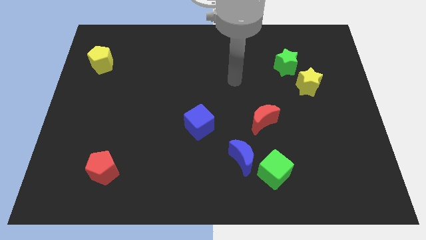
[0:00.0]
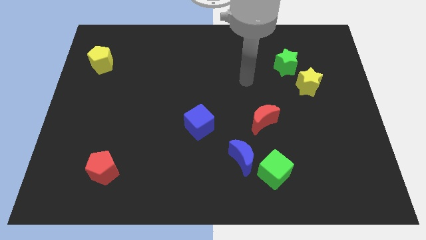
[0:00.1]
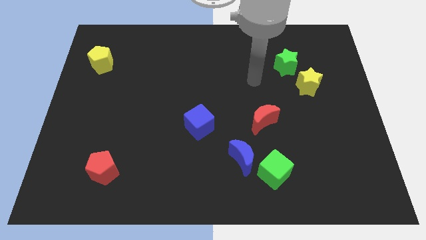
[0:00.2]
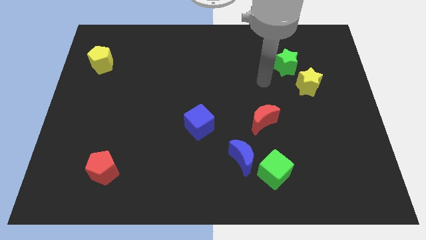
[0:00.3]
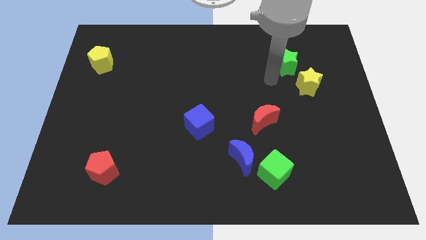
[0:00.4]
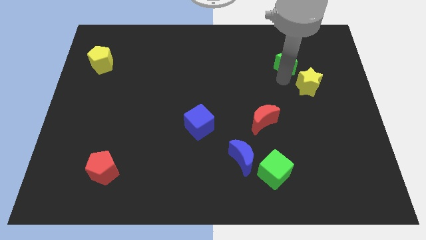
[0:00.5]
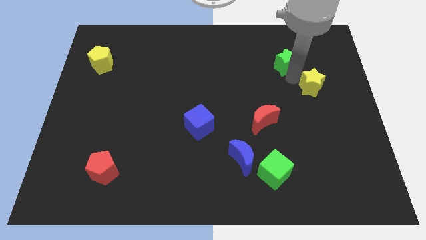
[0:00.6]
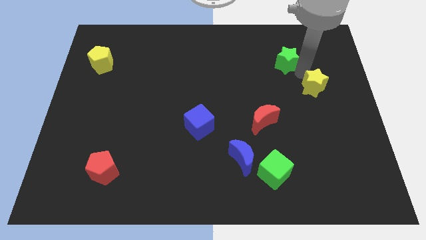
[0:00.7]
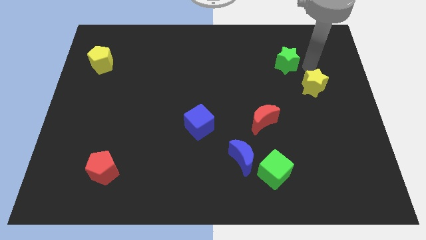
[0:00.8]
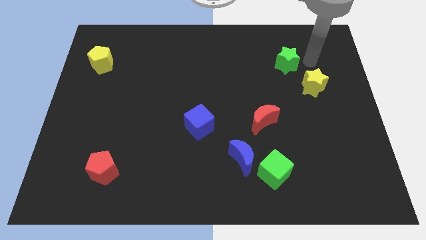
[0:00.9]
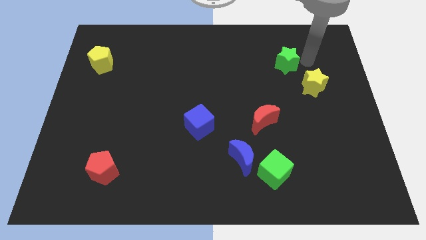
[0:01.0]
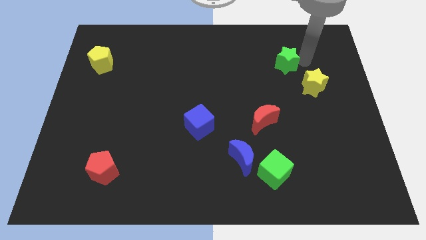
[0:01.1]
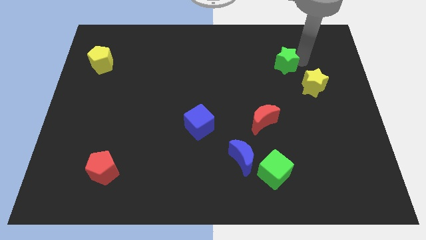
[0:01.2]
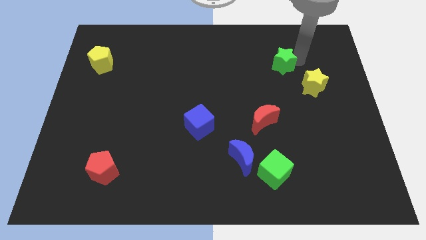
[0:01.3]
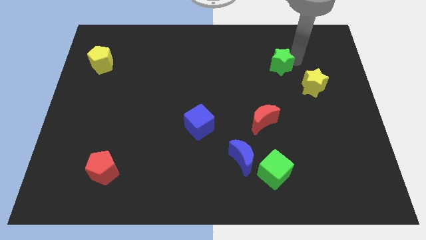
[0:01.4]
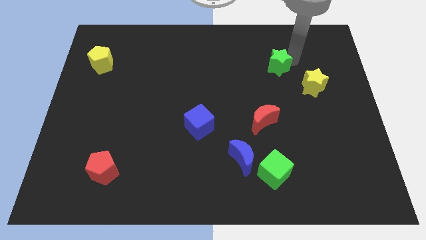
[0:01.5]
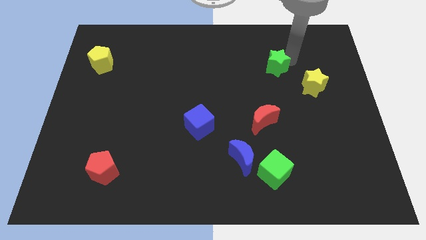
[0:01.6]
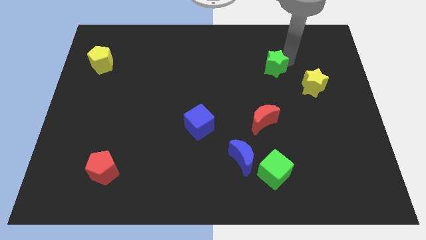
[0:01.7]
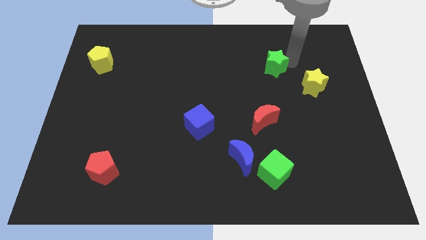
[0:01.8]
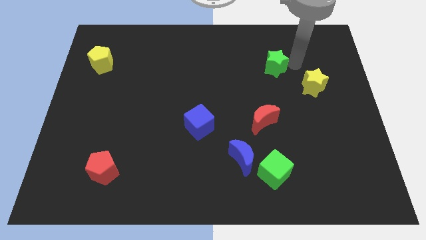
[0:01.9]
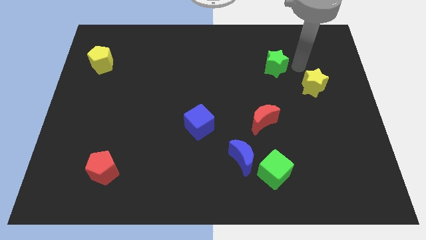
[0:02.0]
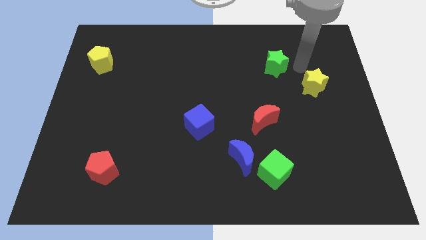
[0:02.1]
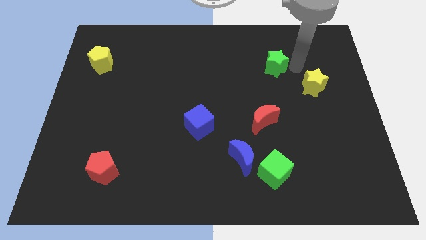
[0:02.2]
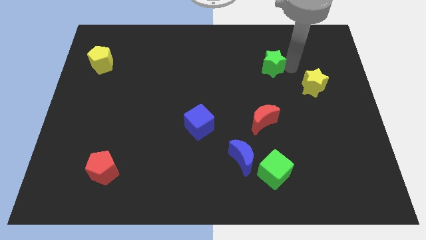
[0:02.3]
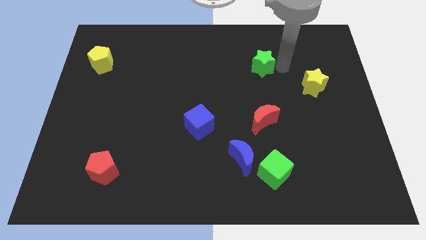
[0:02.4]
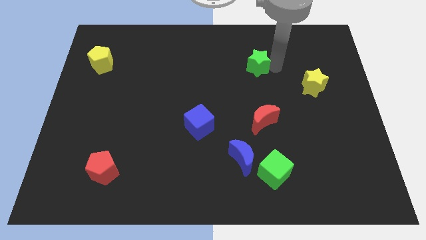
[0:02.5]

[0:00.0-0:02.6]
slide the green star to the left slightly

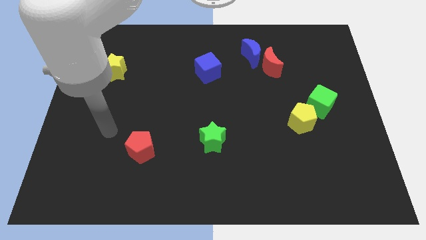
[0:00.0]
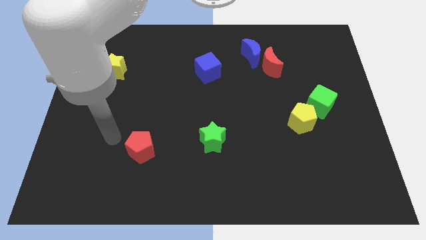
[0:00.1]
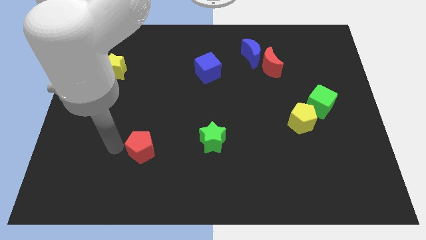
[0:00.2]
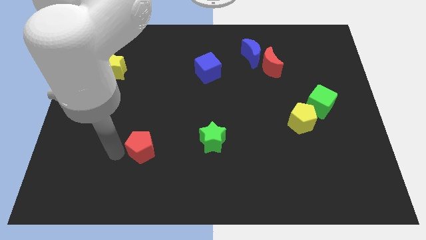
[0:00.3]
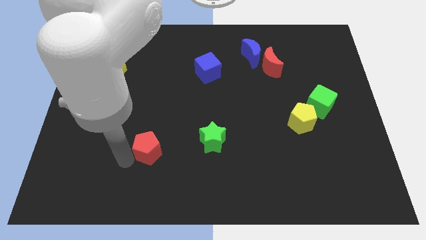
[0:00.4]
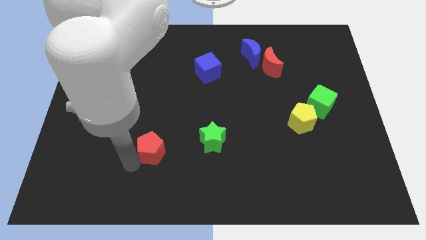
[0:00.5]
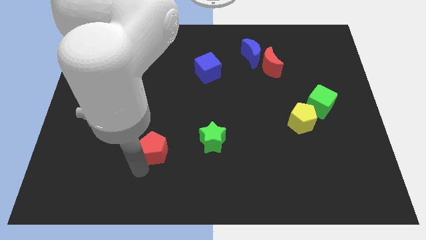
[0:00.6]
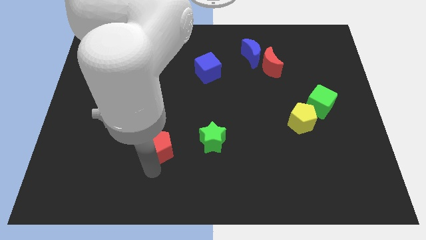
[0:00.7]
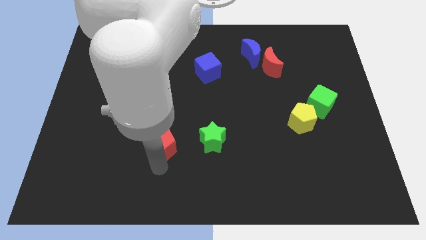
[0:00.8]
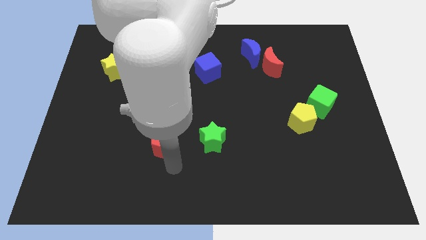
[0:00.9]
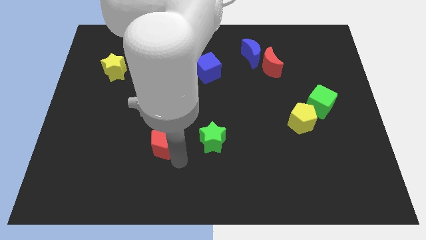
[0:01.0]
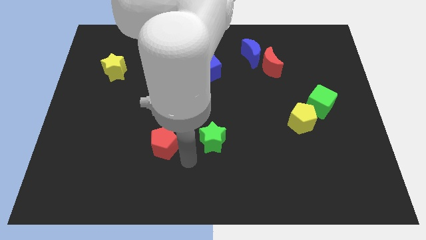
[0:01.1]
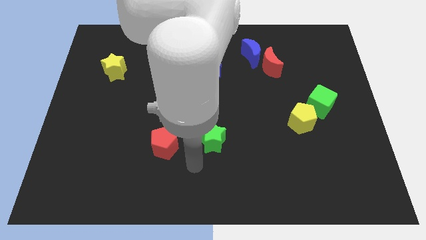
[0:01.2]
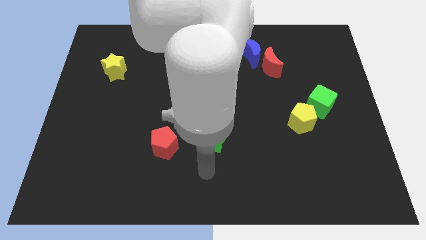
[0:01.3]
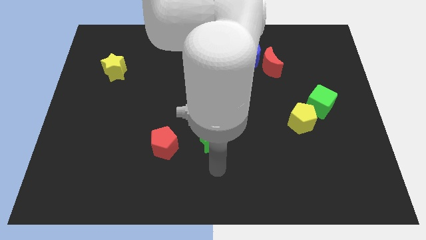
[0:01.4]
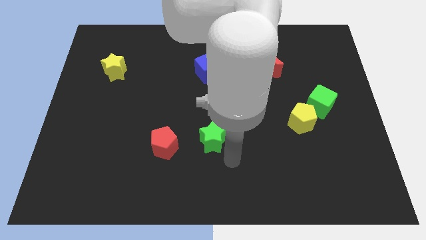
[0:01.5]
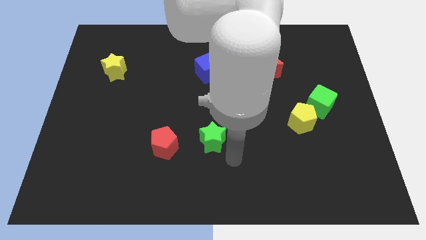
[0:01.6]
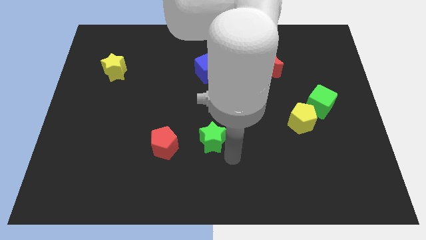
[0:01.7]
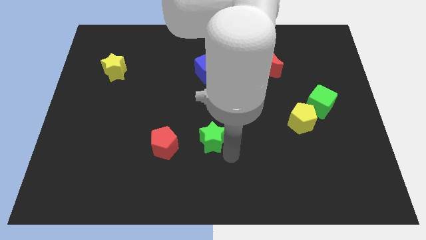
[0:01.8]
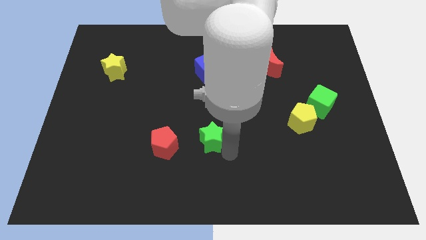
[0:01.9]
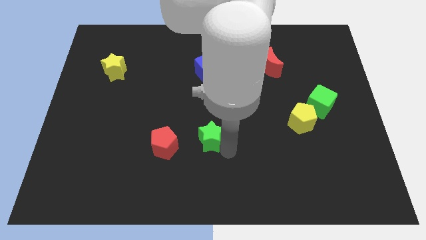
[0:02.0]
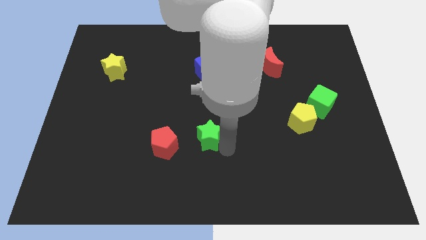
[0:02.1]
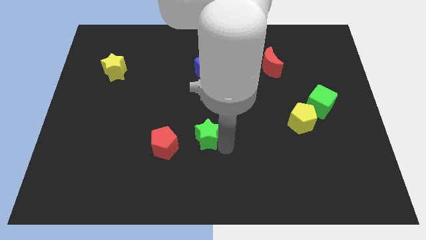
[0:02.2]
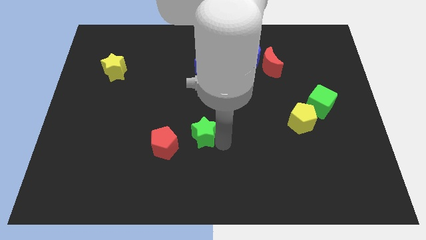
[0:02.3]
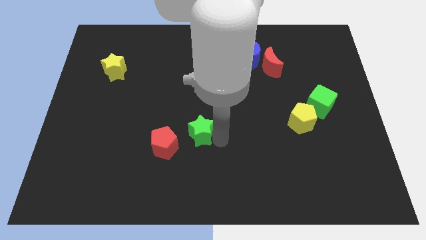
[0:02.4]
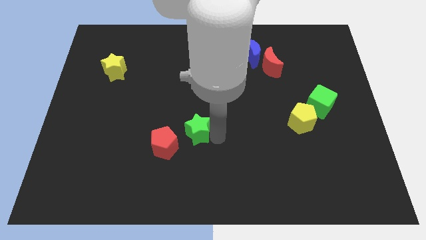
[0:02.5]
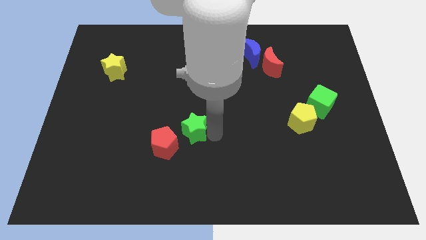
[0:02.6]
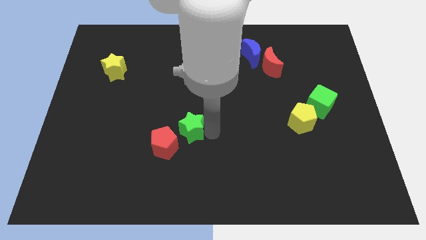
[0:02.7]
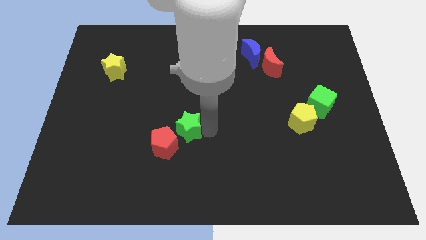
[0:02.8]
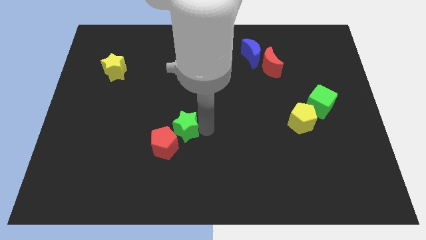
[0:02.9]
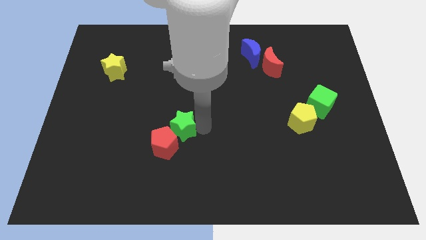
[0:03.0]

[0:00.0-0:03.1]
push the green star a little up and then left

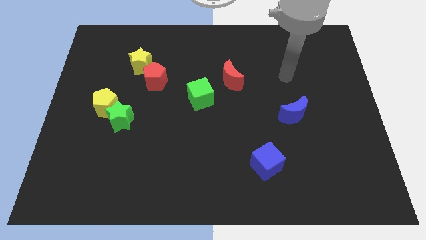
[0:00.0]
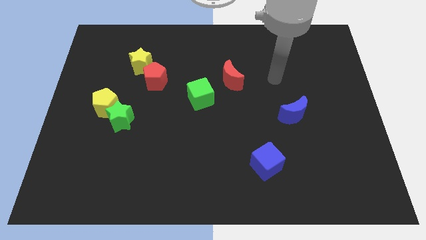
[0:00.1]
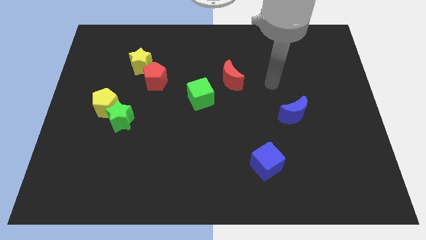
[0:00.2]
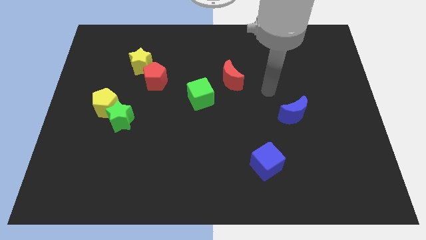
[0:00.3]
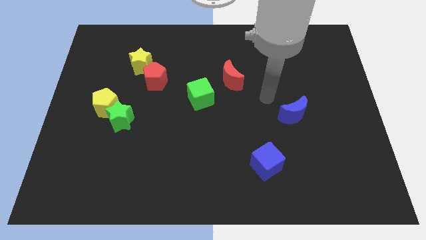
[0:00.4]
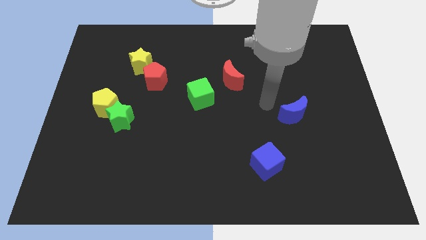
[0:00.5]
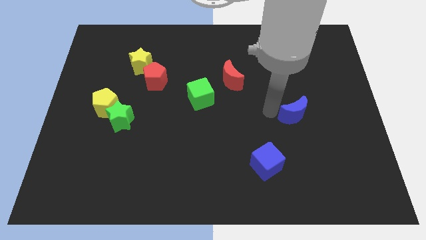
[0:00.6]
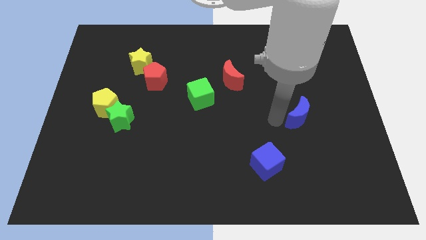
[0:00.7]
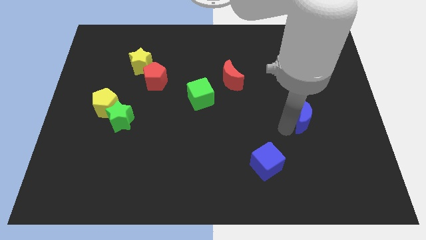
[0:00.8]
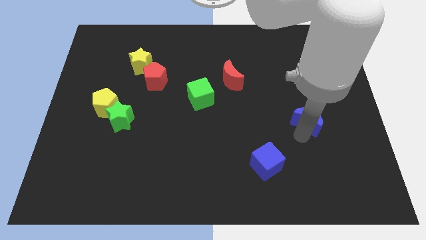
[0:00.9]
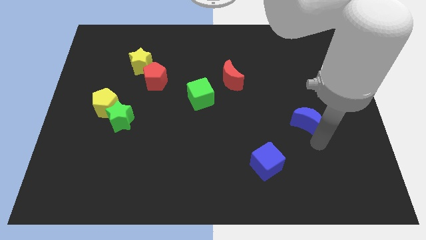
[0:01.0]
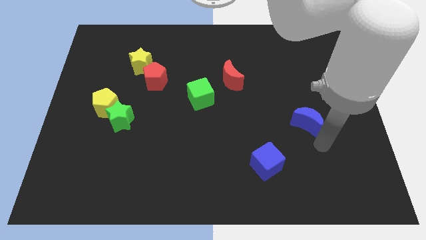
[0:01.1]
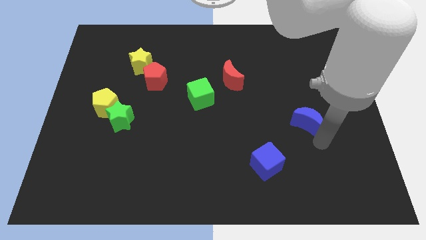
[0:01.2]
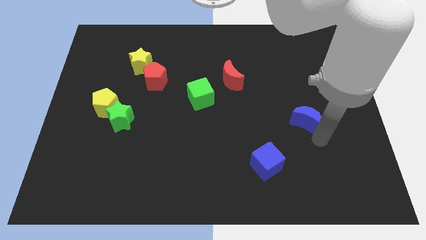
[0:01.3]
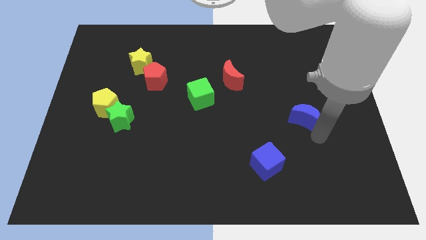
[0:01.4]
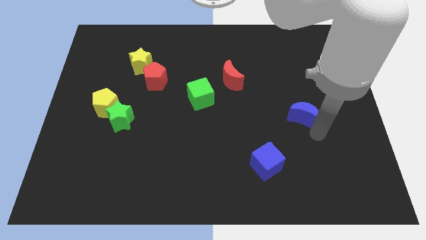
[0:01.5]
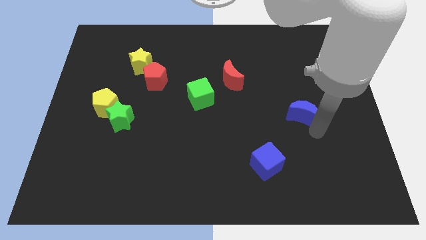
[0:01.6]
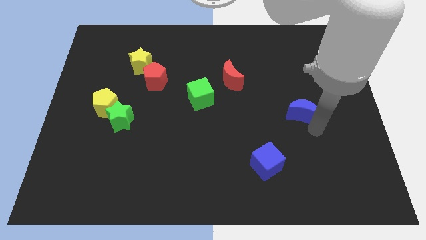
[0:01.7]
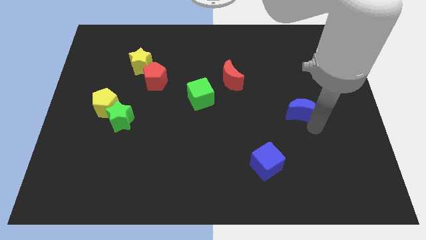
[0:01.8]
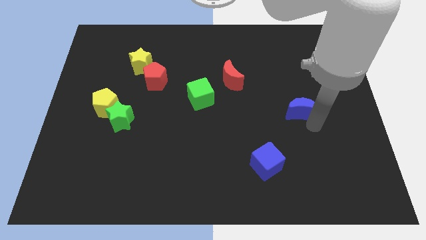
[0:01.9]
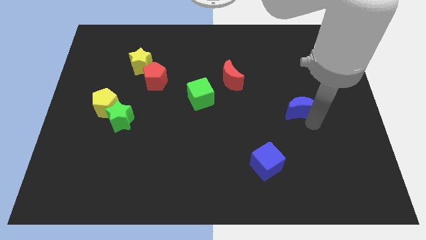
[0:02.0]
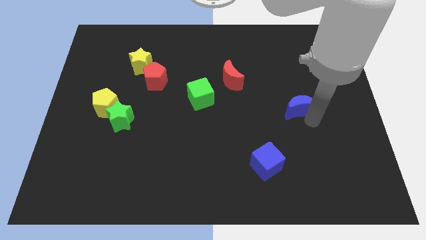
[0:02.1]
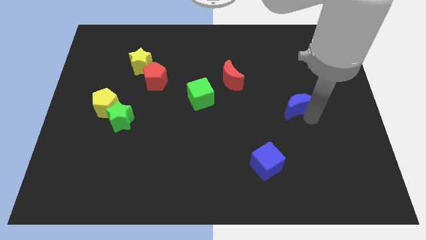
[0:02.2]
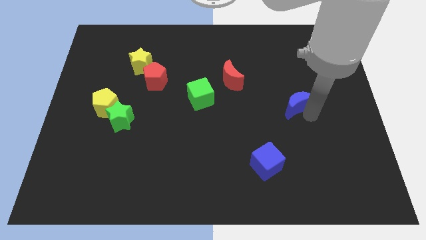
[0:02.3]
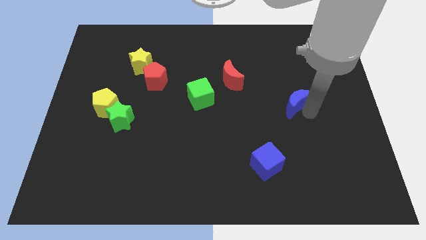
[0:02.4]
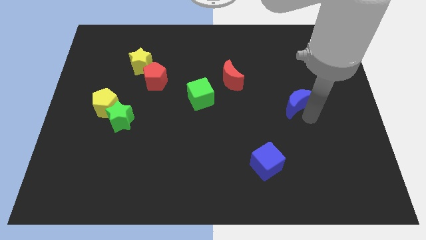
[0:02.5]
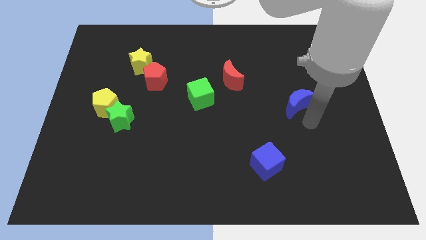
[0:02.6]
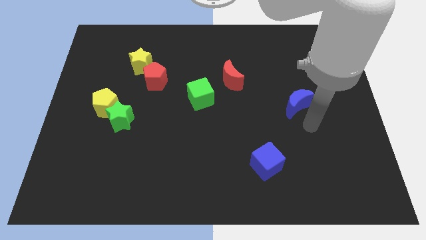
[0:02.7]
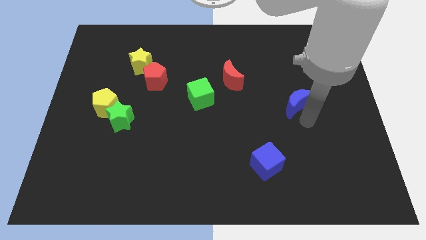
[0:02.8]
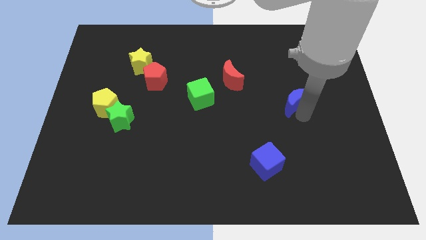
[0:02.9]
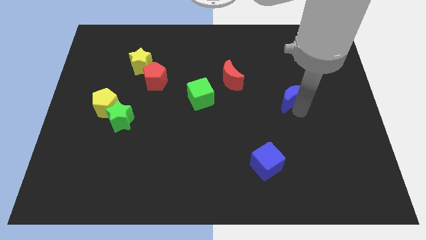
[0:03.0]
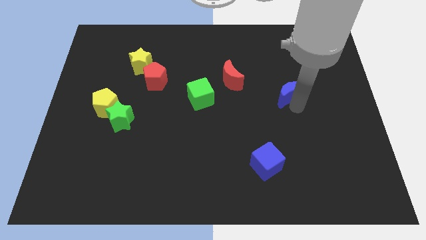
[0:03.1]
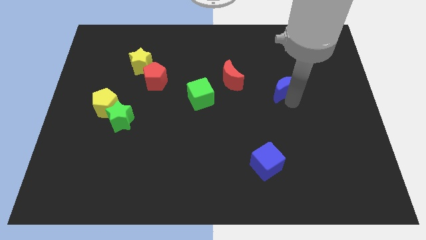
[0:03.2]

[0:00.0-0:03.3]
slightly slide the blue moon up
